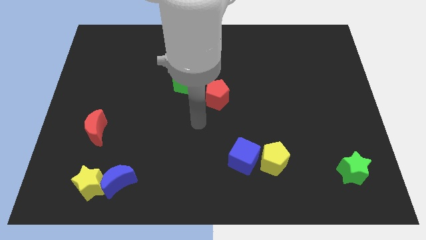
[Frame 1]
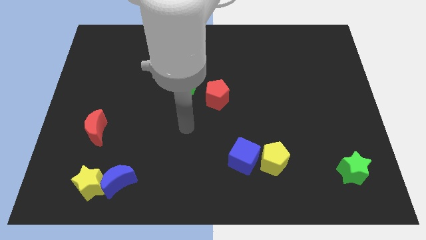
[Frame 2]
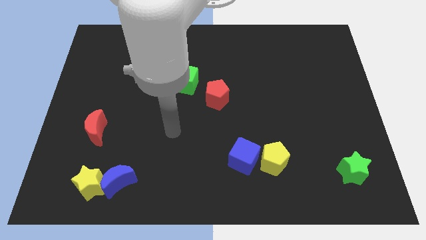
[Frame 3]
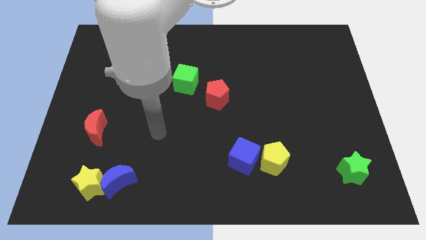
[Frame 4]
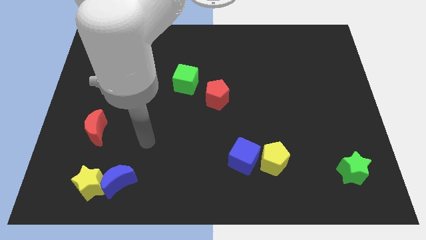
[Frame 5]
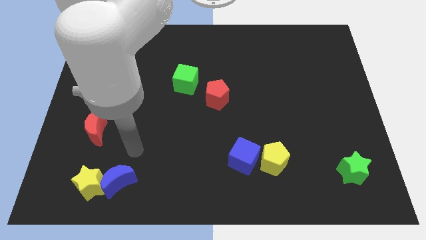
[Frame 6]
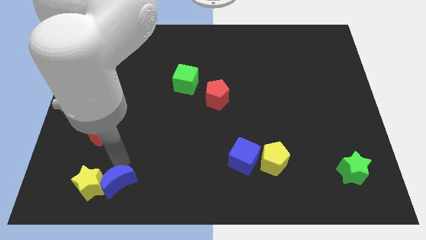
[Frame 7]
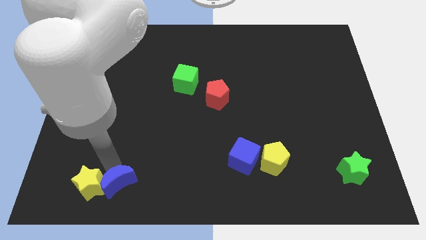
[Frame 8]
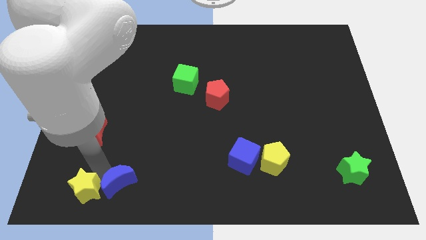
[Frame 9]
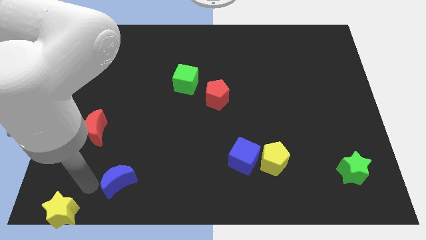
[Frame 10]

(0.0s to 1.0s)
separate the blue moon from the yellow star

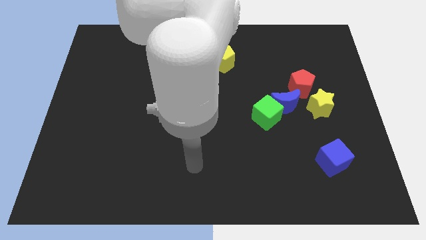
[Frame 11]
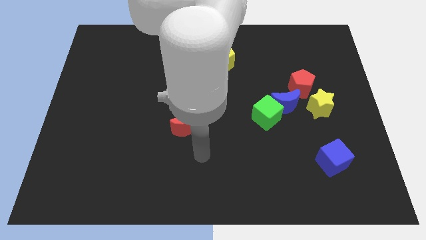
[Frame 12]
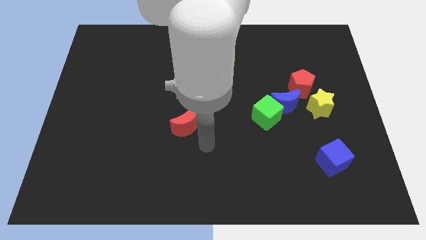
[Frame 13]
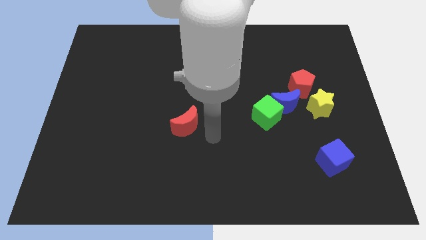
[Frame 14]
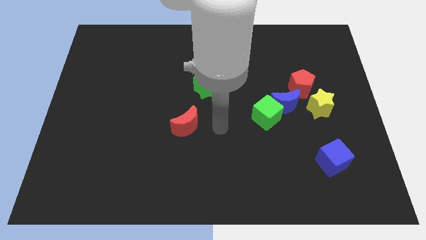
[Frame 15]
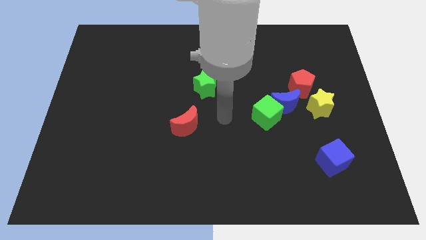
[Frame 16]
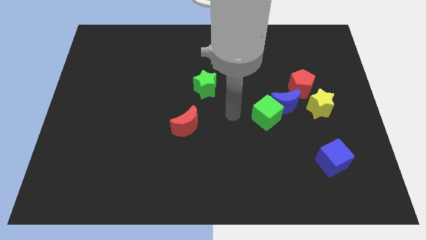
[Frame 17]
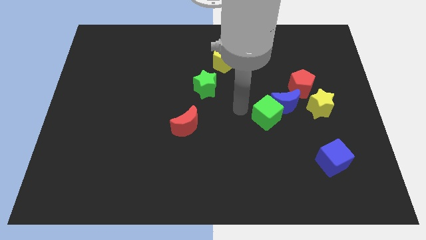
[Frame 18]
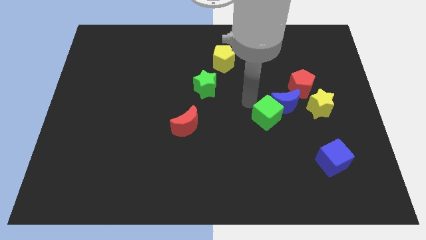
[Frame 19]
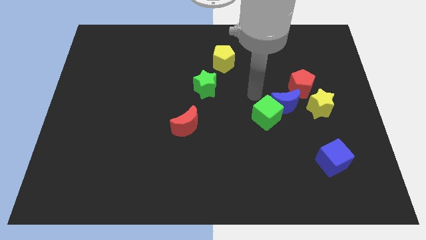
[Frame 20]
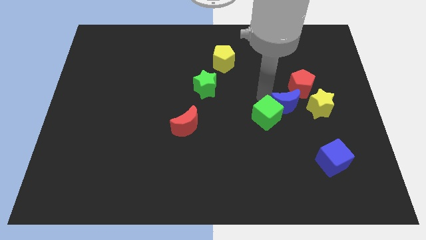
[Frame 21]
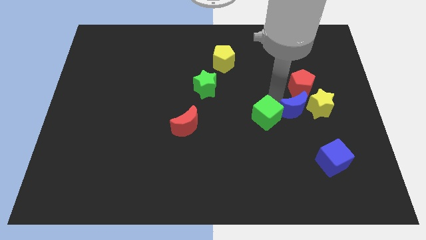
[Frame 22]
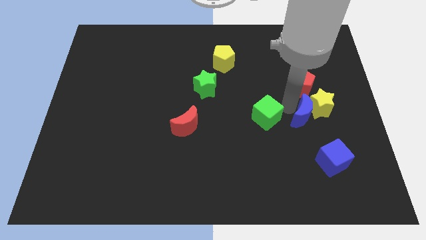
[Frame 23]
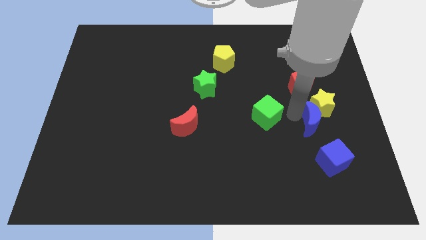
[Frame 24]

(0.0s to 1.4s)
pull the green cube apart from the blue moon

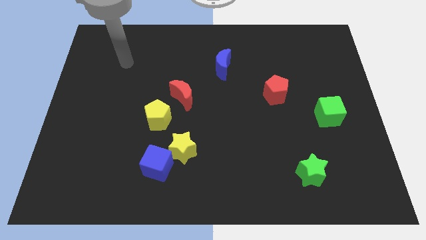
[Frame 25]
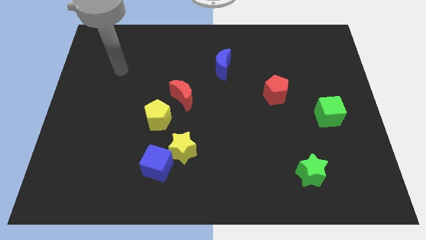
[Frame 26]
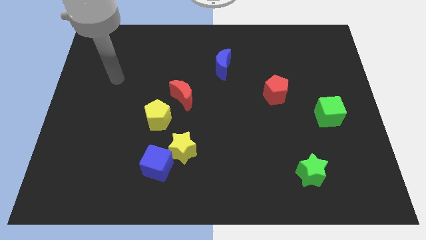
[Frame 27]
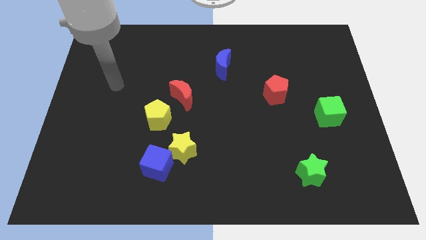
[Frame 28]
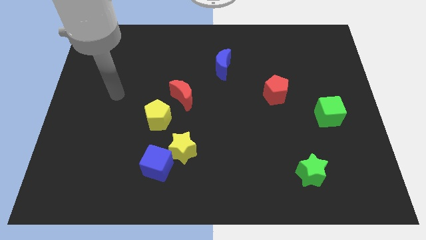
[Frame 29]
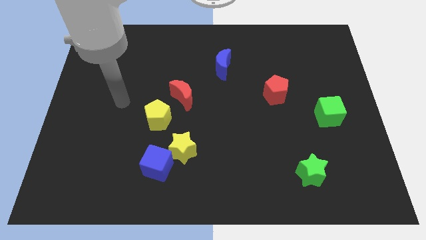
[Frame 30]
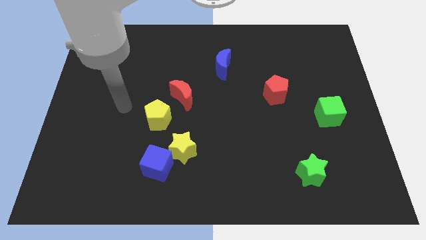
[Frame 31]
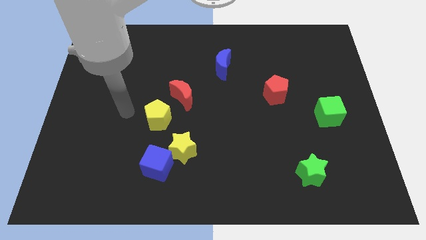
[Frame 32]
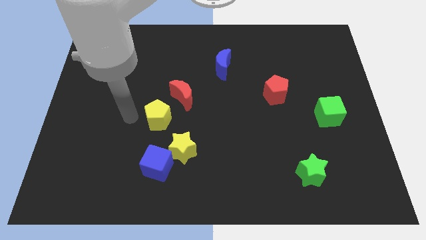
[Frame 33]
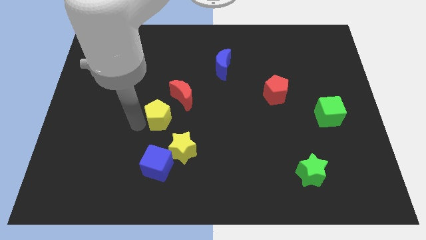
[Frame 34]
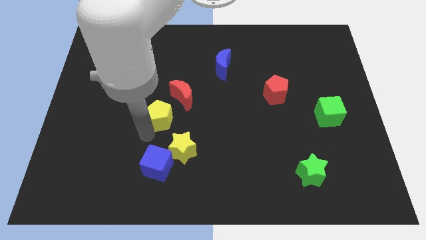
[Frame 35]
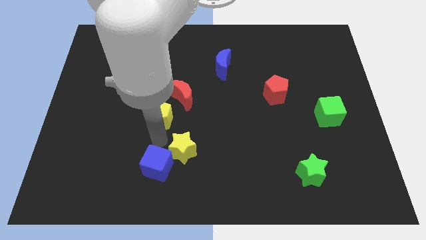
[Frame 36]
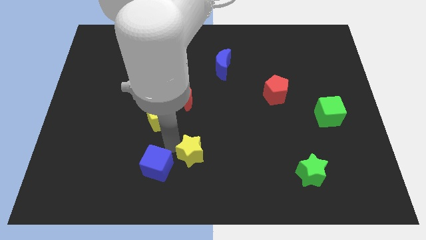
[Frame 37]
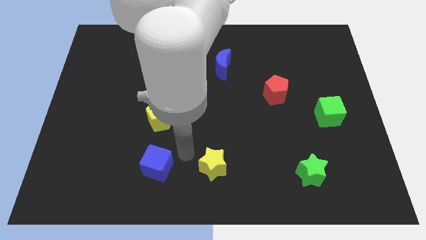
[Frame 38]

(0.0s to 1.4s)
move the blue cube away from the yellow star

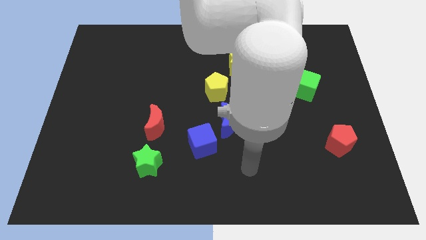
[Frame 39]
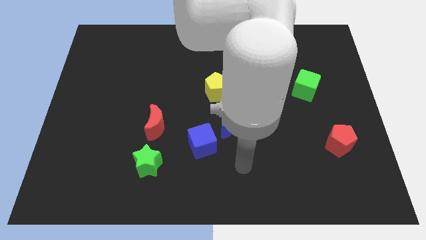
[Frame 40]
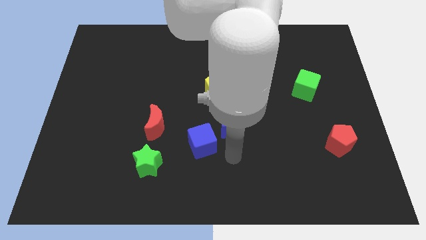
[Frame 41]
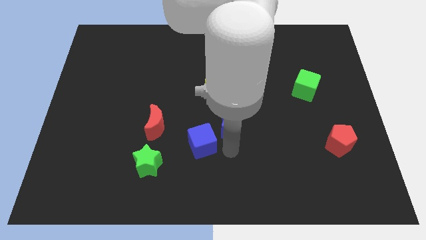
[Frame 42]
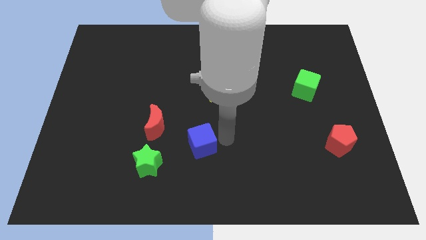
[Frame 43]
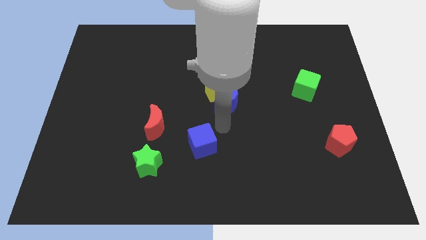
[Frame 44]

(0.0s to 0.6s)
separate the blue cube from the blue moon

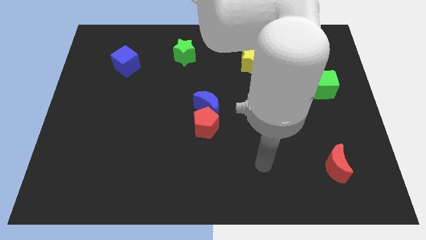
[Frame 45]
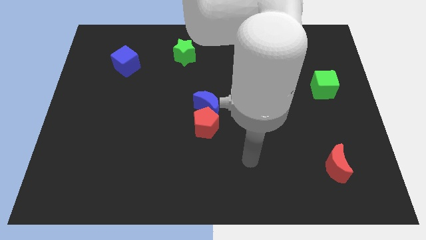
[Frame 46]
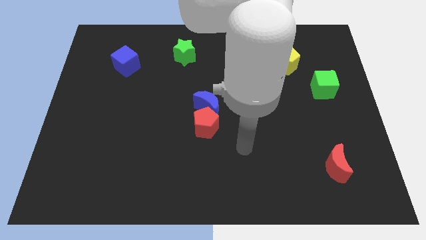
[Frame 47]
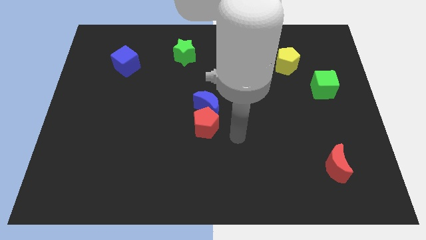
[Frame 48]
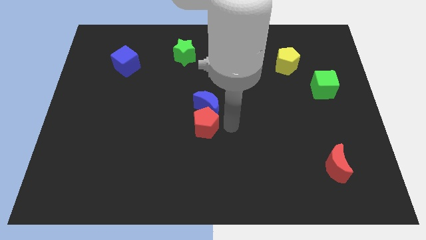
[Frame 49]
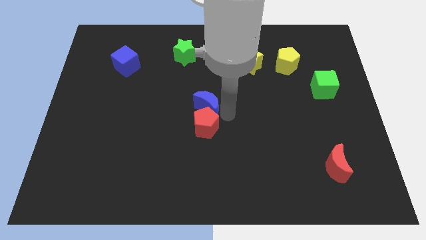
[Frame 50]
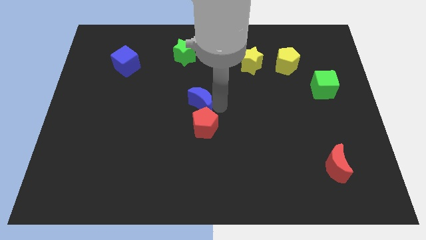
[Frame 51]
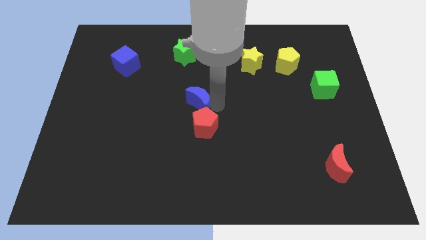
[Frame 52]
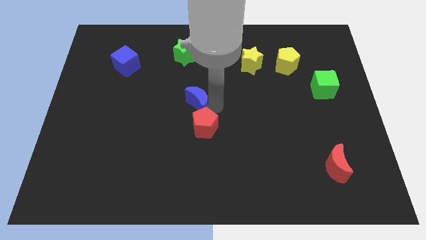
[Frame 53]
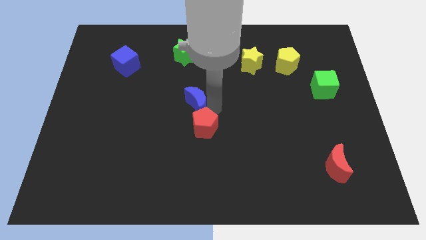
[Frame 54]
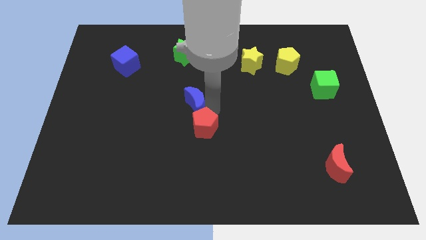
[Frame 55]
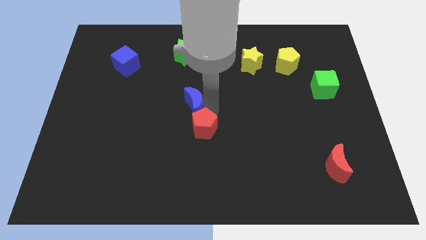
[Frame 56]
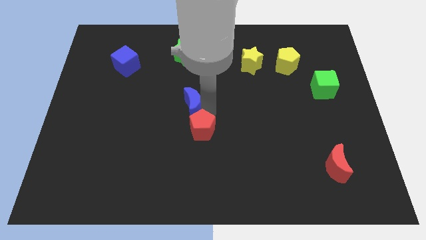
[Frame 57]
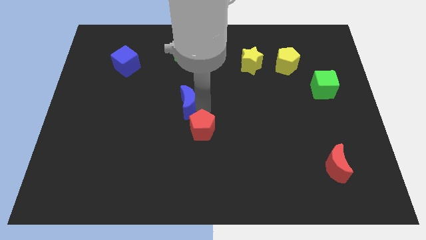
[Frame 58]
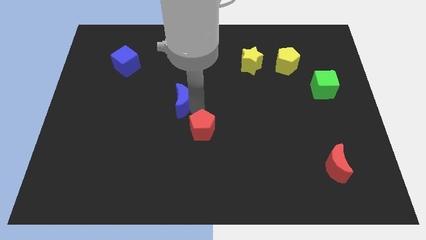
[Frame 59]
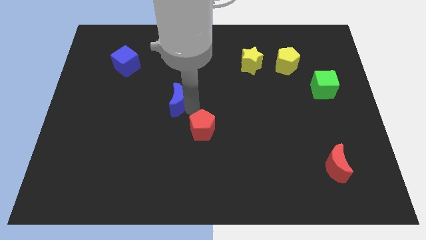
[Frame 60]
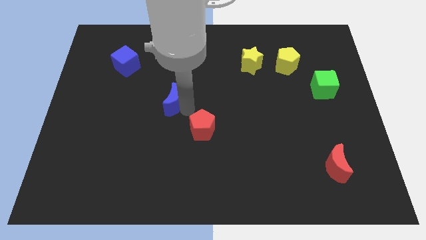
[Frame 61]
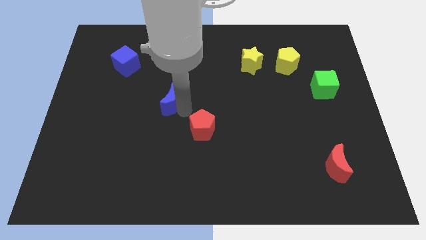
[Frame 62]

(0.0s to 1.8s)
separate the red pentagon from the blue moon

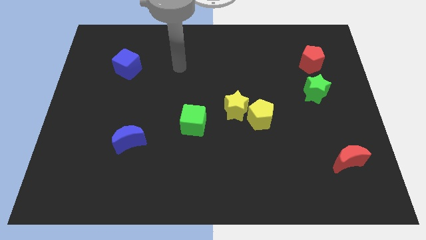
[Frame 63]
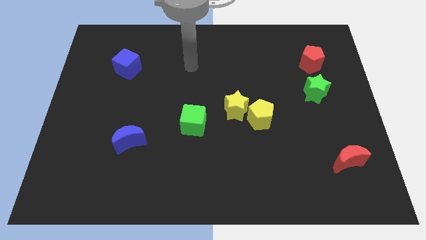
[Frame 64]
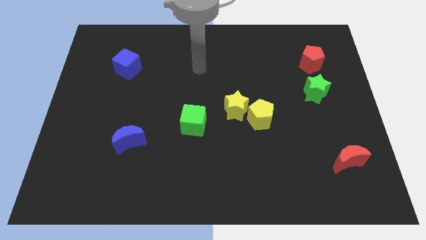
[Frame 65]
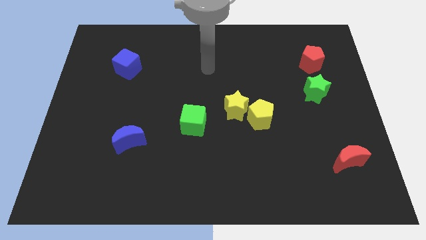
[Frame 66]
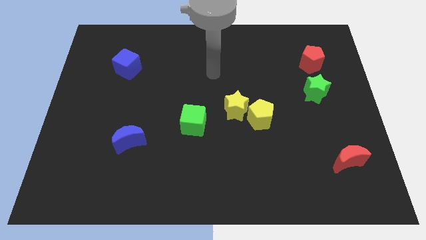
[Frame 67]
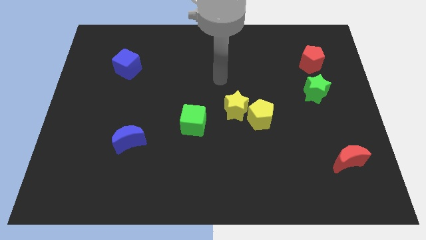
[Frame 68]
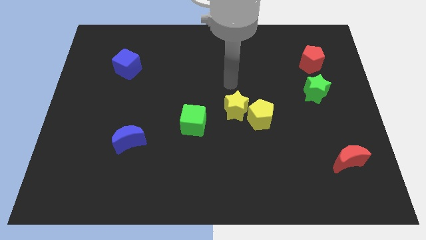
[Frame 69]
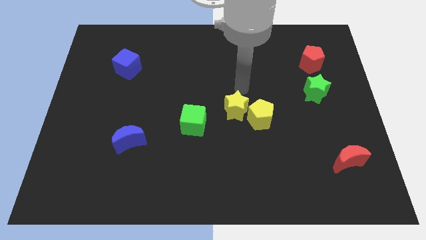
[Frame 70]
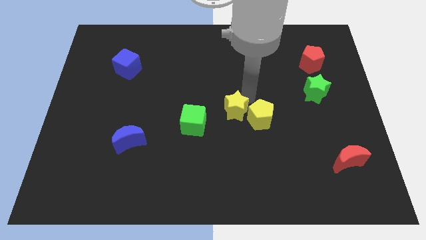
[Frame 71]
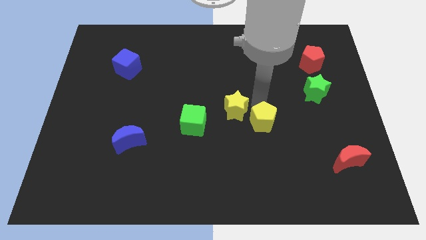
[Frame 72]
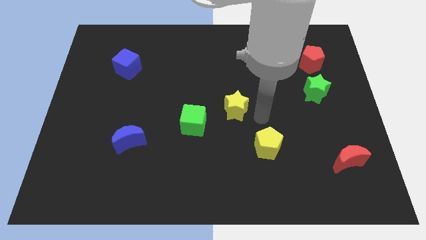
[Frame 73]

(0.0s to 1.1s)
separate the yellow star from the yellow pentagon

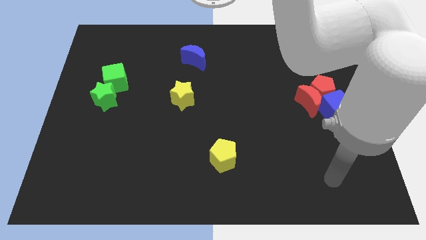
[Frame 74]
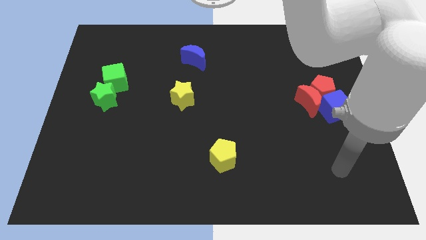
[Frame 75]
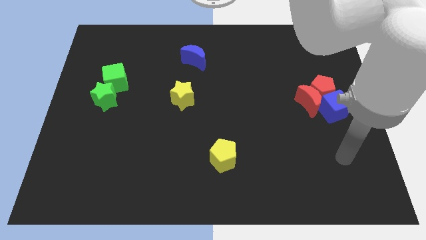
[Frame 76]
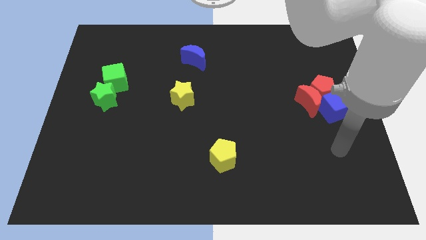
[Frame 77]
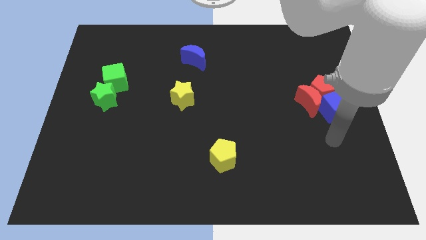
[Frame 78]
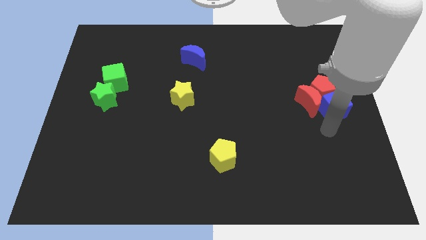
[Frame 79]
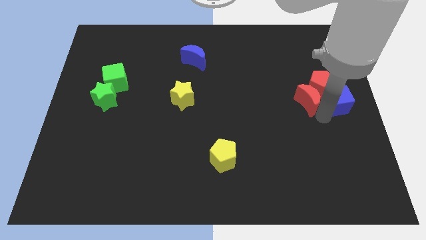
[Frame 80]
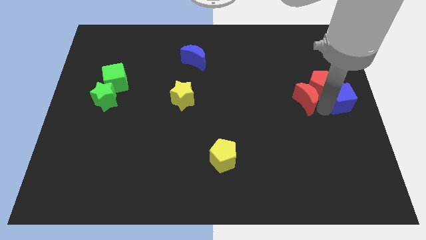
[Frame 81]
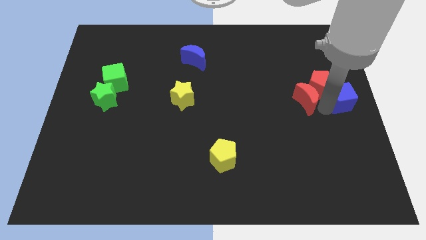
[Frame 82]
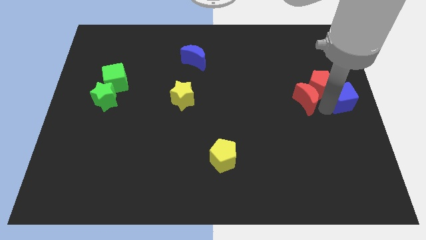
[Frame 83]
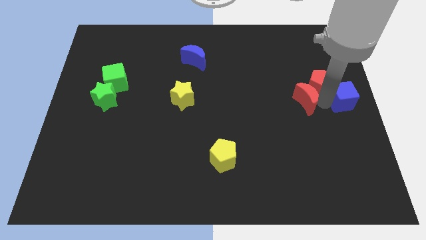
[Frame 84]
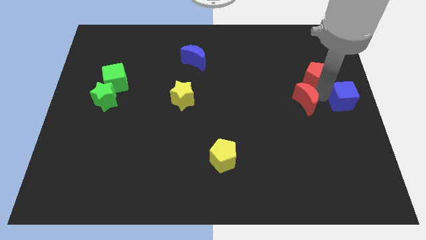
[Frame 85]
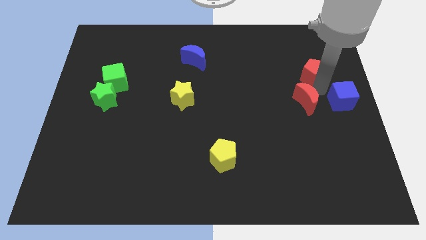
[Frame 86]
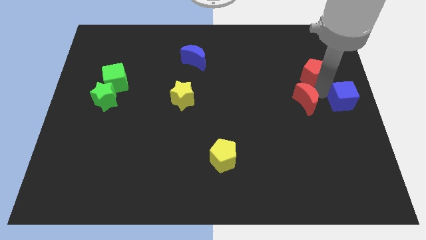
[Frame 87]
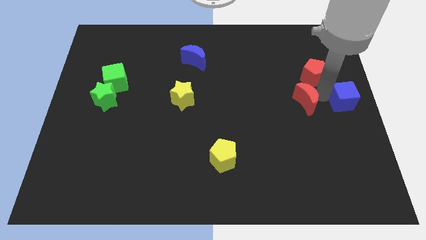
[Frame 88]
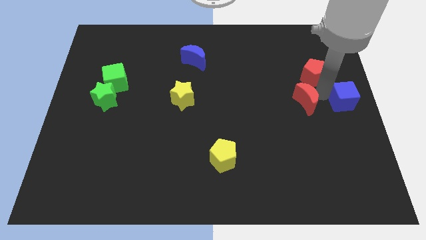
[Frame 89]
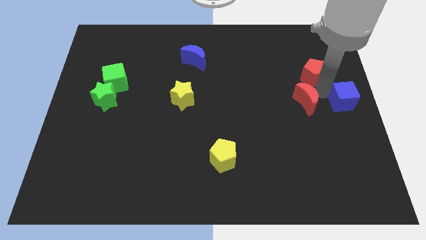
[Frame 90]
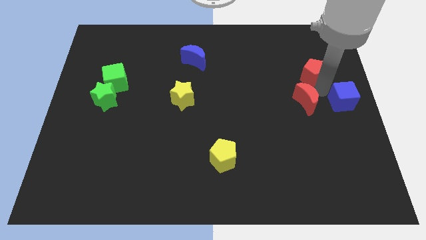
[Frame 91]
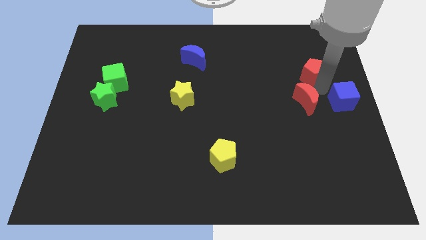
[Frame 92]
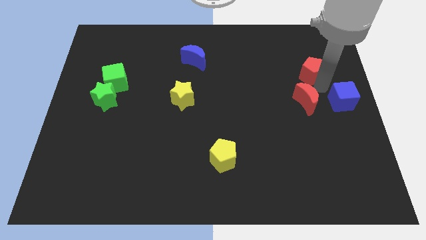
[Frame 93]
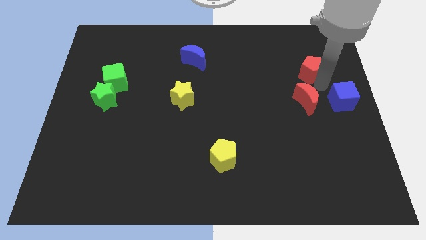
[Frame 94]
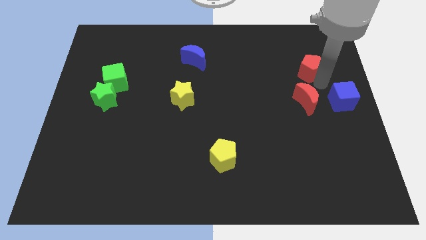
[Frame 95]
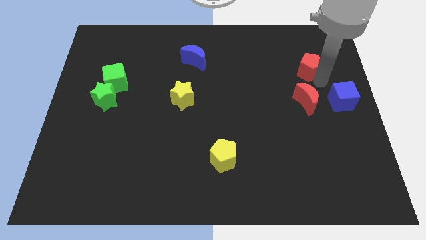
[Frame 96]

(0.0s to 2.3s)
pull the red pentagon apart from the red moon and blue cube
